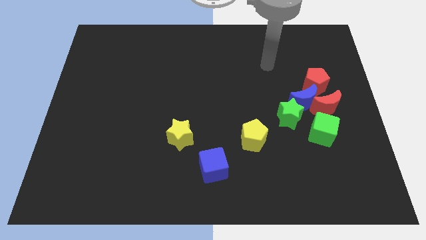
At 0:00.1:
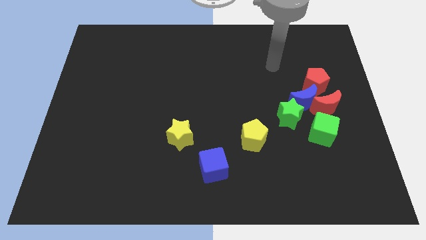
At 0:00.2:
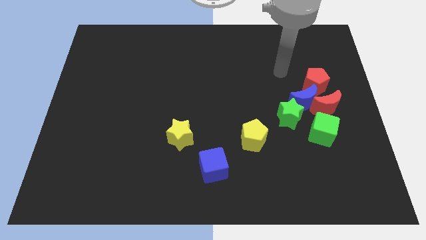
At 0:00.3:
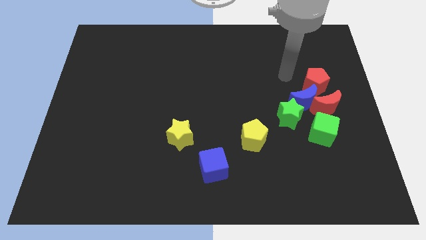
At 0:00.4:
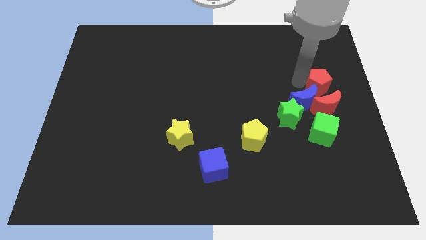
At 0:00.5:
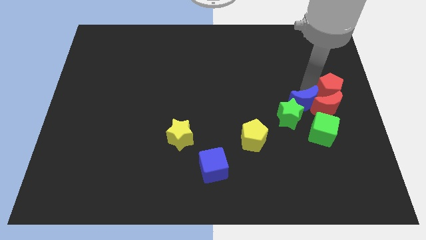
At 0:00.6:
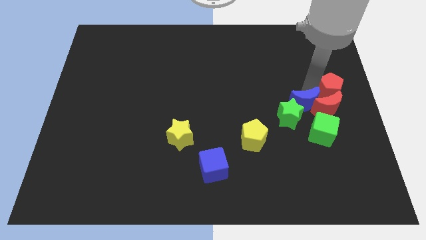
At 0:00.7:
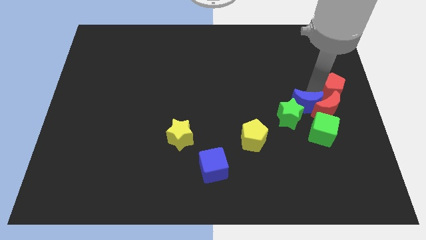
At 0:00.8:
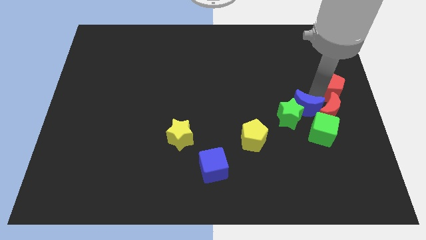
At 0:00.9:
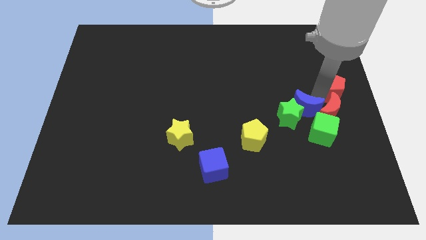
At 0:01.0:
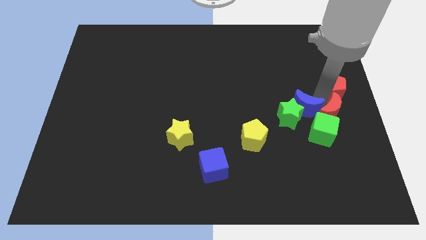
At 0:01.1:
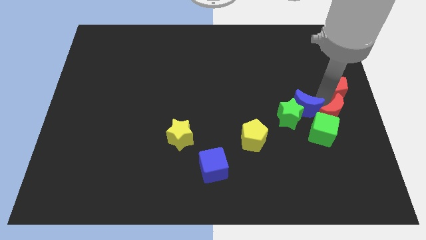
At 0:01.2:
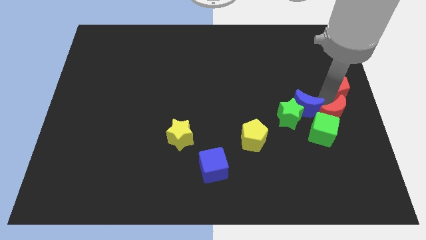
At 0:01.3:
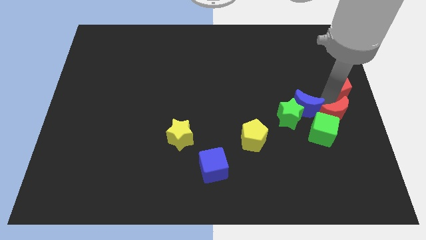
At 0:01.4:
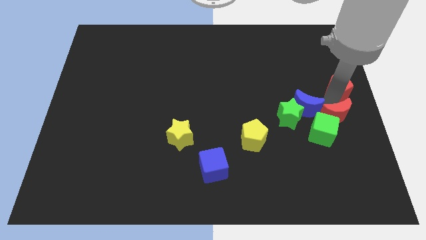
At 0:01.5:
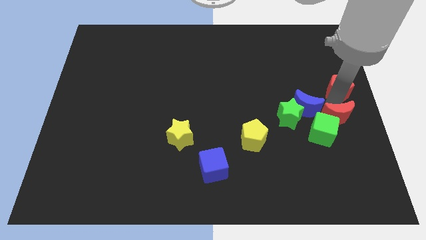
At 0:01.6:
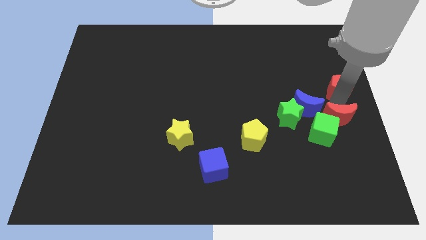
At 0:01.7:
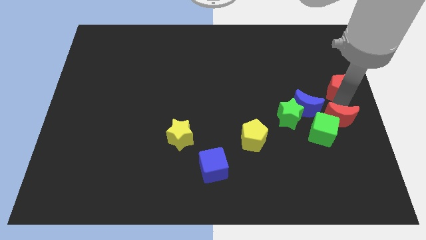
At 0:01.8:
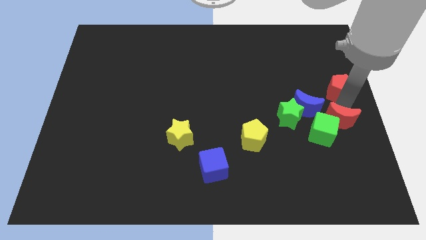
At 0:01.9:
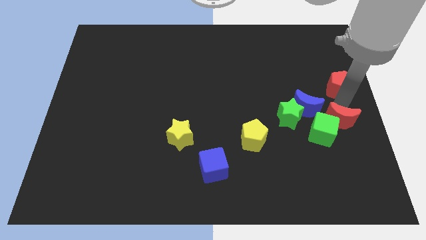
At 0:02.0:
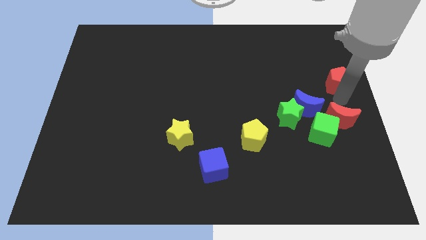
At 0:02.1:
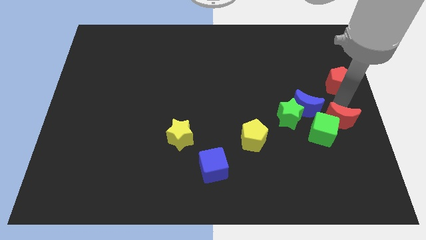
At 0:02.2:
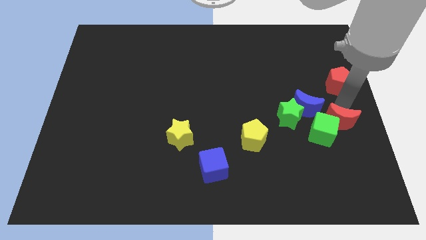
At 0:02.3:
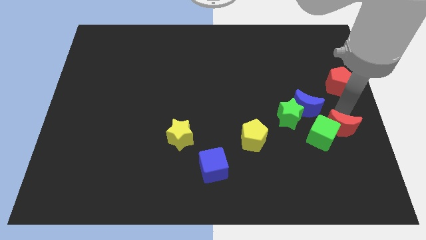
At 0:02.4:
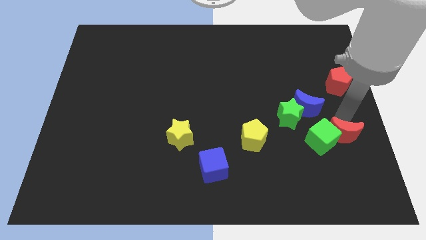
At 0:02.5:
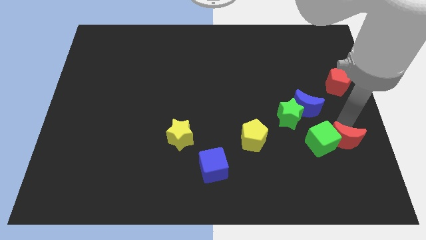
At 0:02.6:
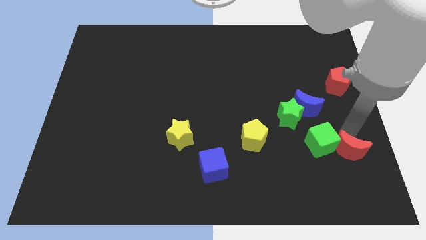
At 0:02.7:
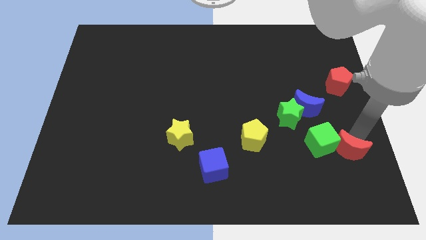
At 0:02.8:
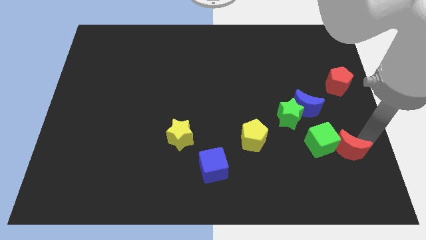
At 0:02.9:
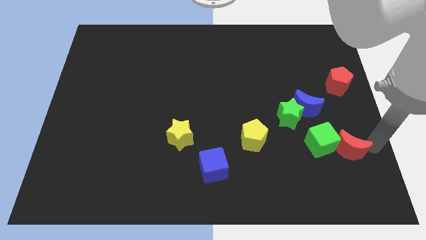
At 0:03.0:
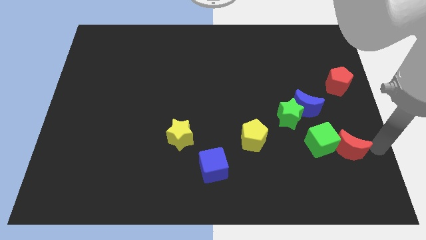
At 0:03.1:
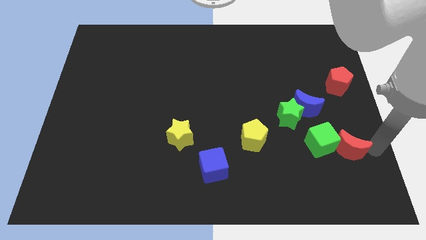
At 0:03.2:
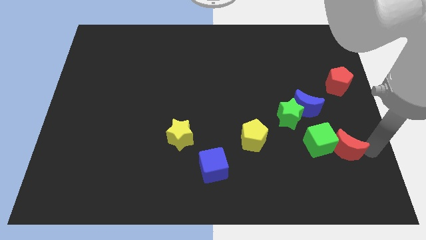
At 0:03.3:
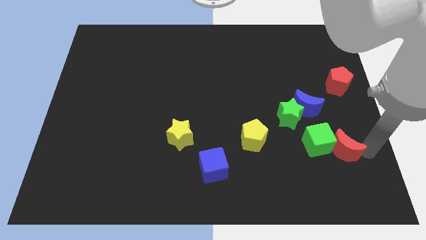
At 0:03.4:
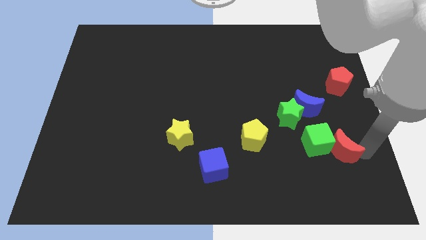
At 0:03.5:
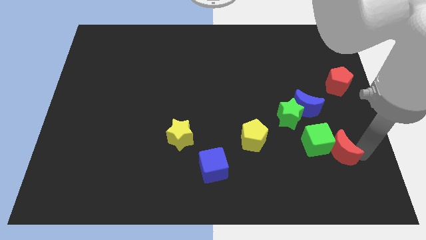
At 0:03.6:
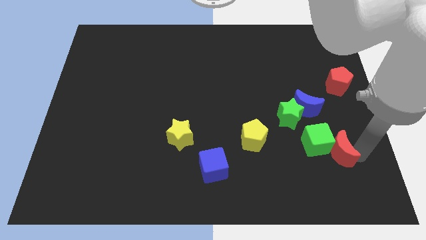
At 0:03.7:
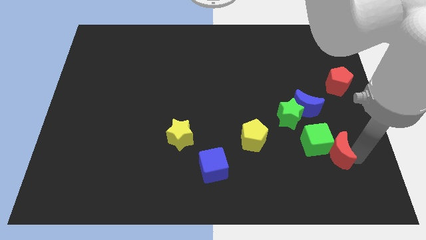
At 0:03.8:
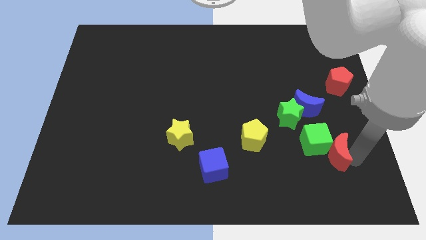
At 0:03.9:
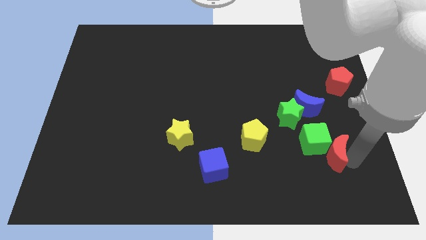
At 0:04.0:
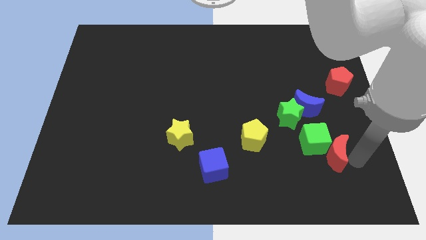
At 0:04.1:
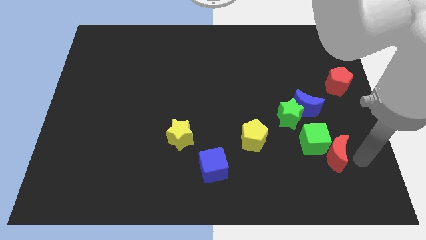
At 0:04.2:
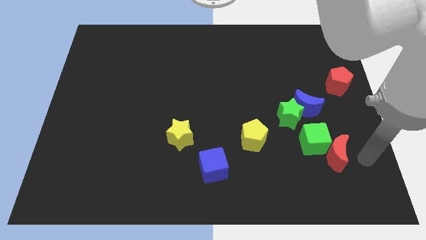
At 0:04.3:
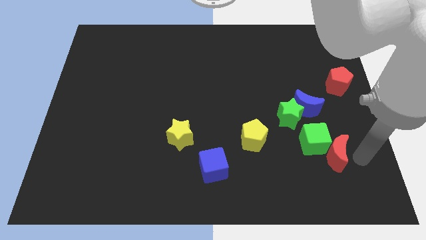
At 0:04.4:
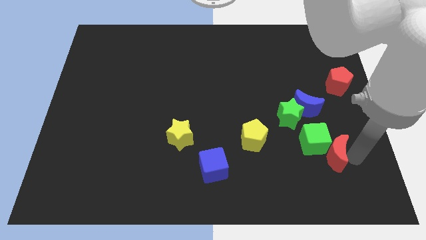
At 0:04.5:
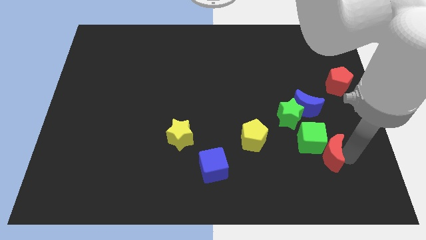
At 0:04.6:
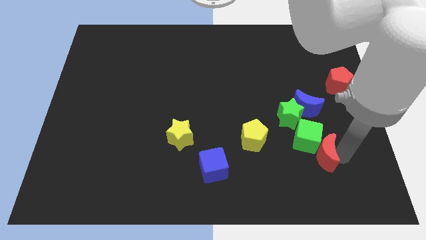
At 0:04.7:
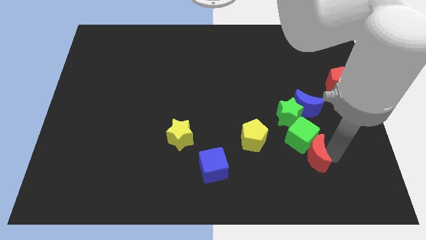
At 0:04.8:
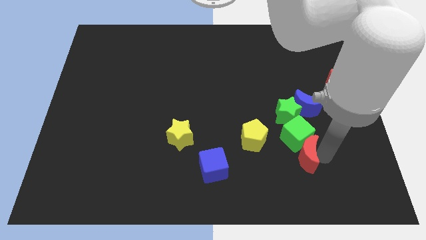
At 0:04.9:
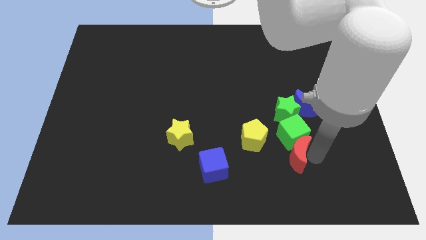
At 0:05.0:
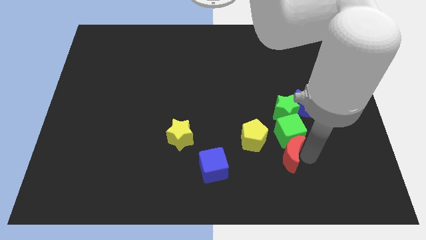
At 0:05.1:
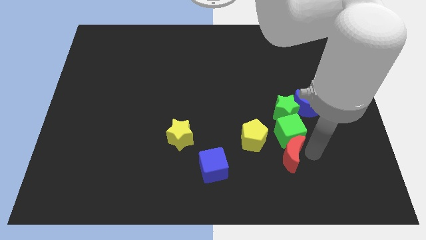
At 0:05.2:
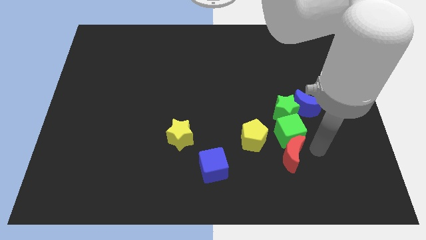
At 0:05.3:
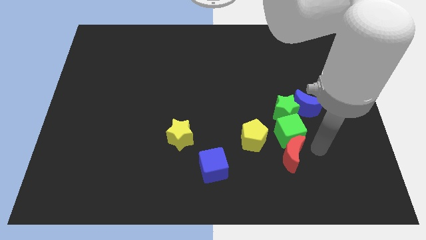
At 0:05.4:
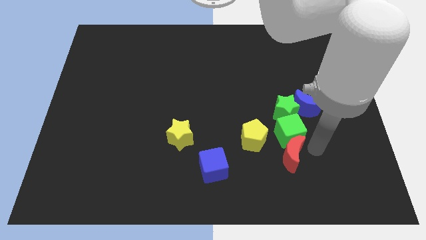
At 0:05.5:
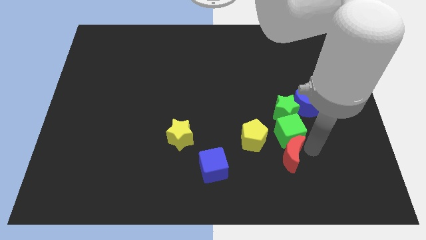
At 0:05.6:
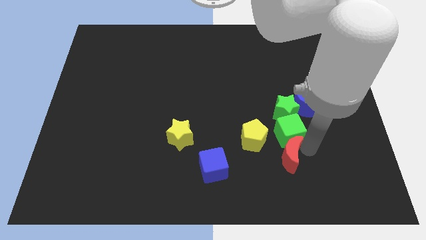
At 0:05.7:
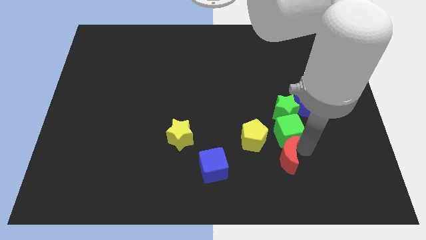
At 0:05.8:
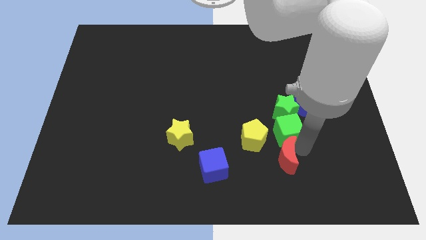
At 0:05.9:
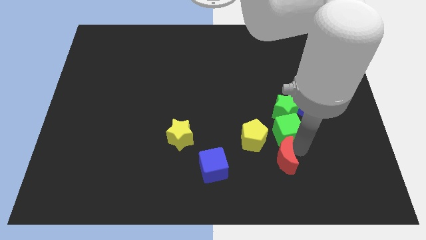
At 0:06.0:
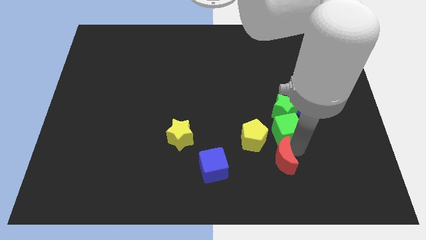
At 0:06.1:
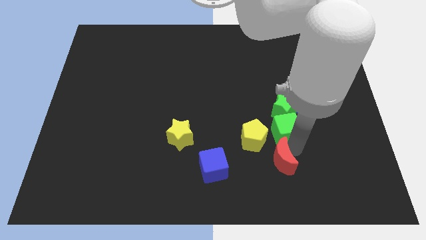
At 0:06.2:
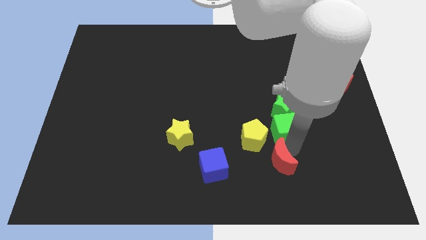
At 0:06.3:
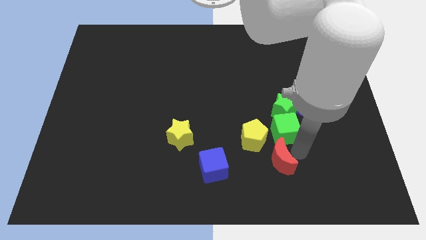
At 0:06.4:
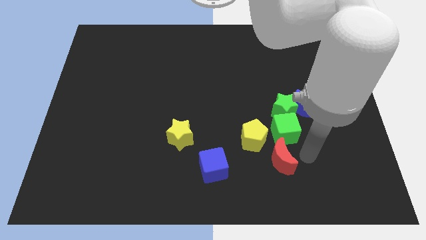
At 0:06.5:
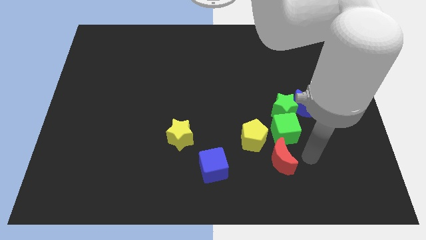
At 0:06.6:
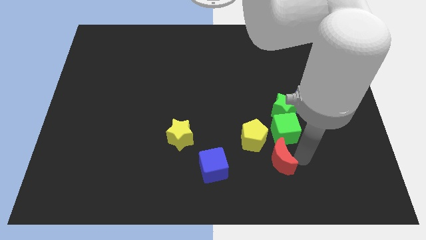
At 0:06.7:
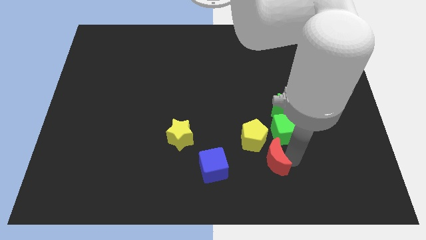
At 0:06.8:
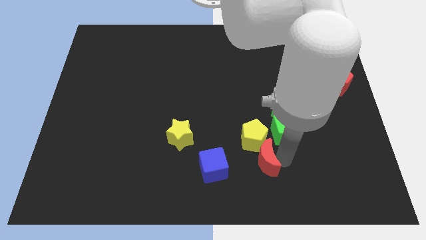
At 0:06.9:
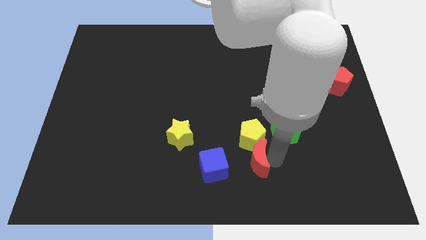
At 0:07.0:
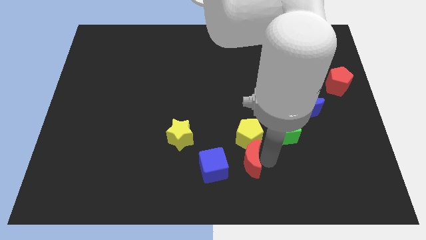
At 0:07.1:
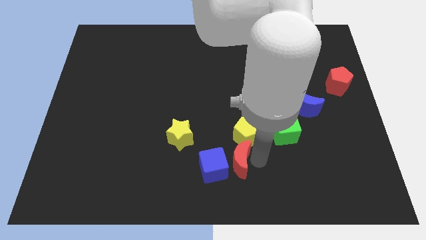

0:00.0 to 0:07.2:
put the red moon close to the blue cube
